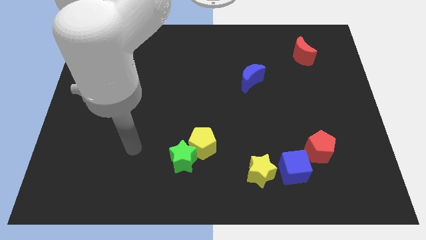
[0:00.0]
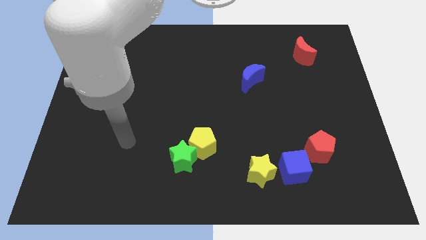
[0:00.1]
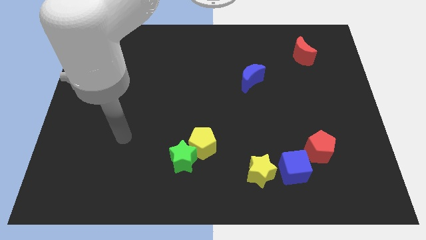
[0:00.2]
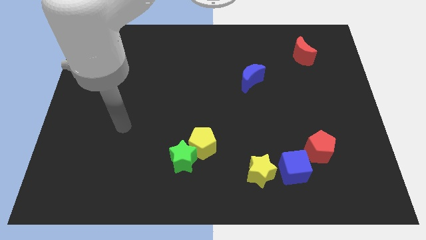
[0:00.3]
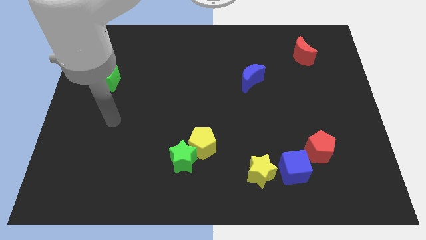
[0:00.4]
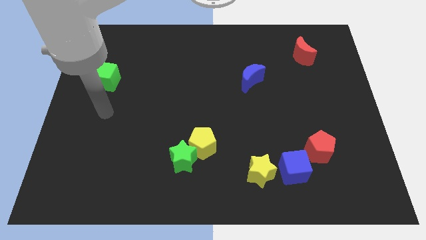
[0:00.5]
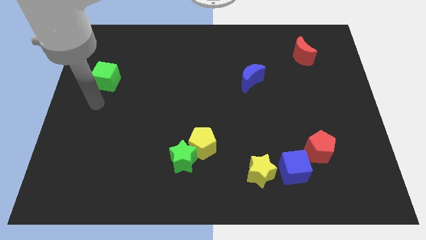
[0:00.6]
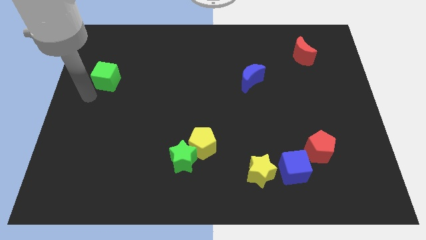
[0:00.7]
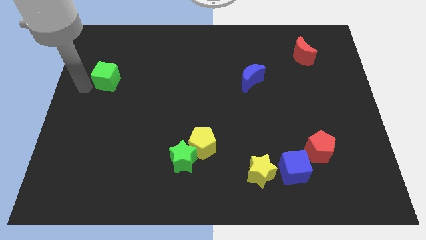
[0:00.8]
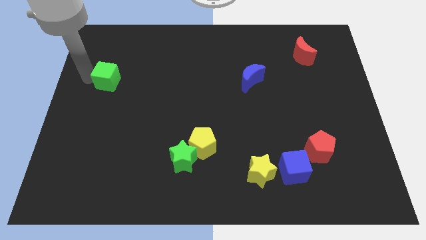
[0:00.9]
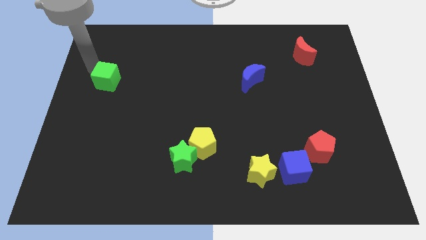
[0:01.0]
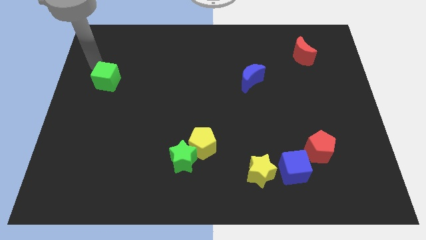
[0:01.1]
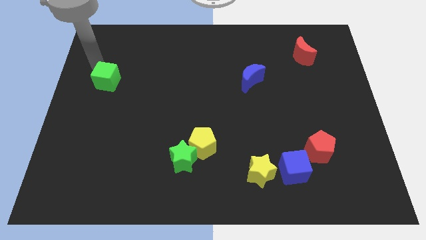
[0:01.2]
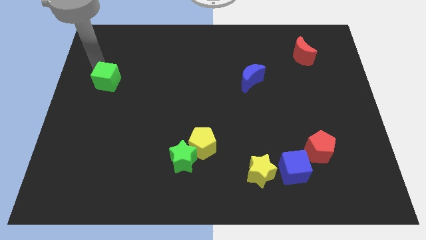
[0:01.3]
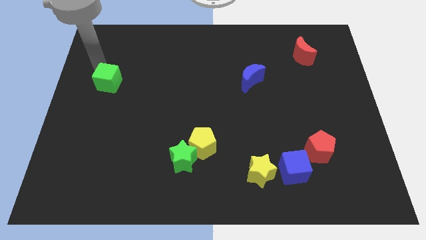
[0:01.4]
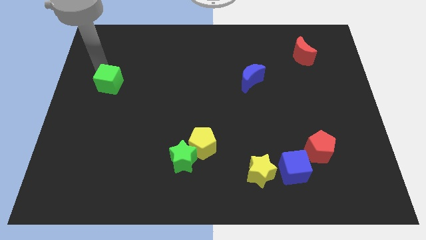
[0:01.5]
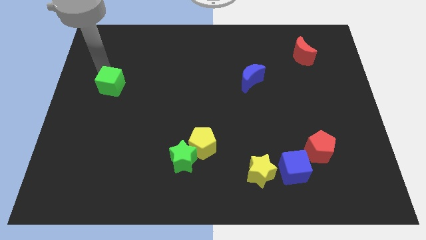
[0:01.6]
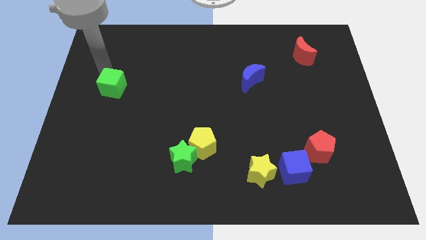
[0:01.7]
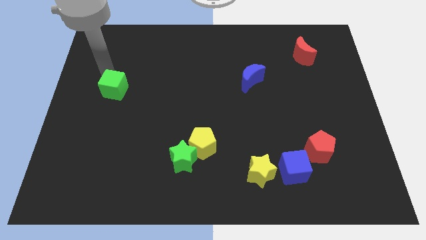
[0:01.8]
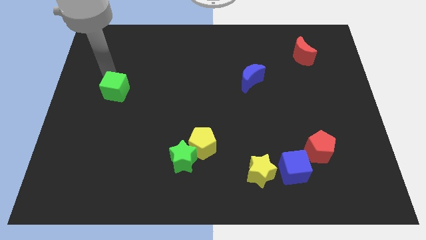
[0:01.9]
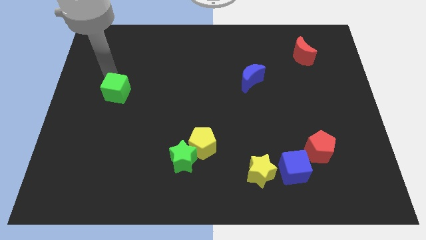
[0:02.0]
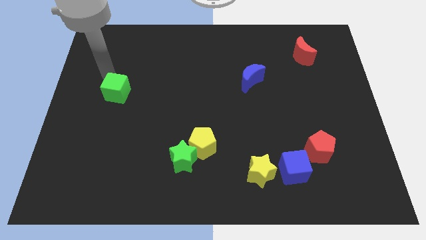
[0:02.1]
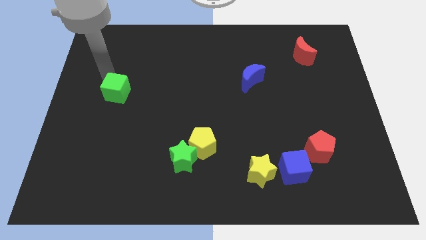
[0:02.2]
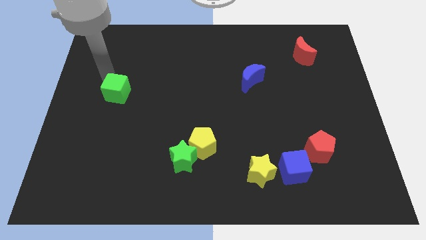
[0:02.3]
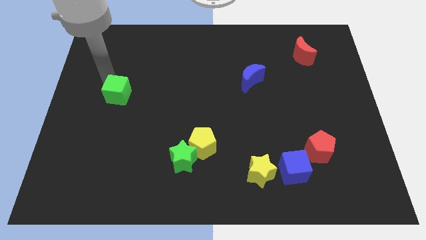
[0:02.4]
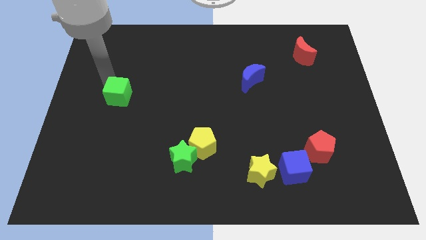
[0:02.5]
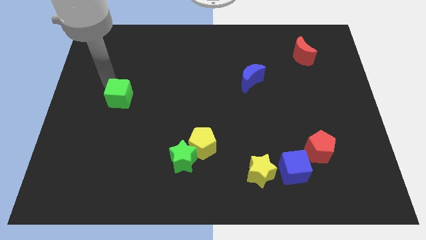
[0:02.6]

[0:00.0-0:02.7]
push the green cube down and to the right a bit

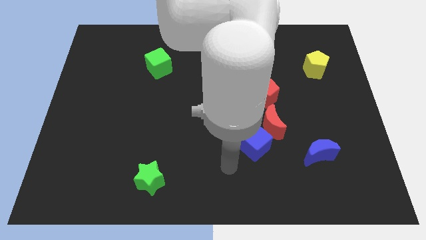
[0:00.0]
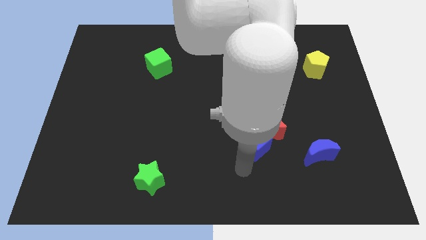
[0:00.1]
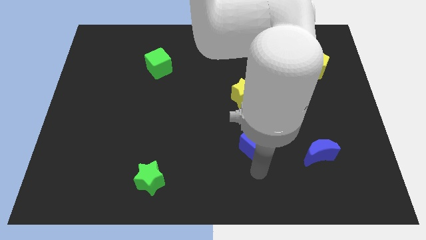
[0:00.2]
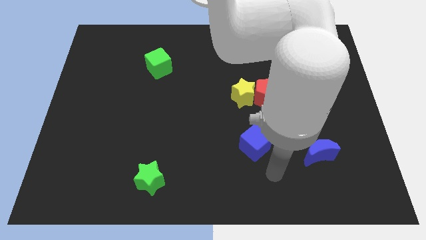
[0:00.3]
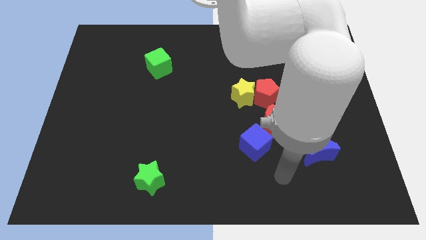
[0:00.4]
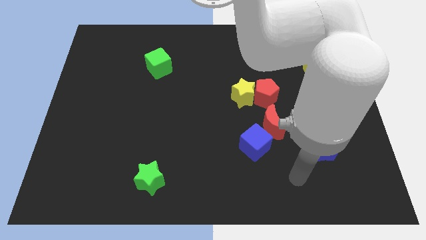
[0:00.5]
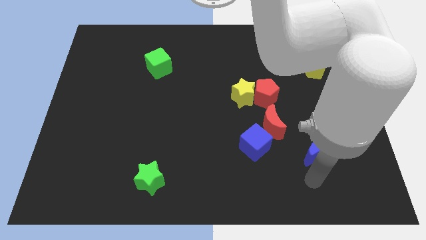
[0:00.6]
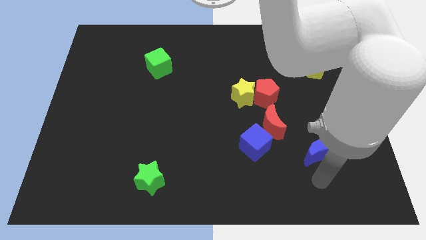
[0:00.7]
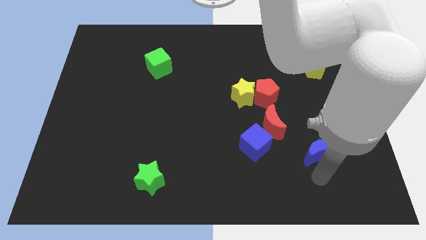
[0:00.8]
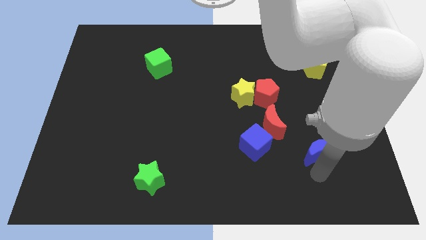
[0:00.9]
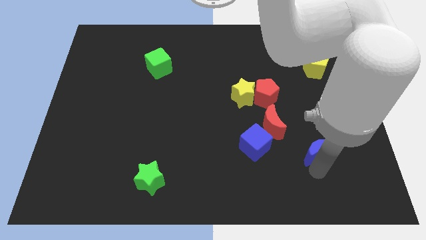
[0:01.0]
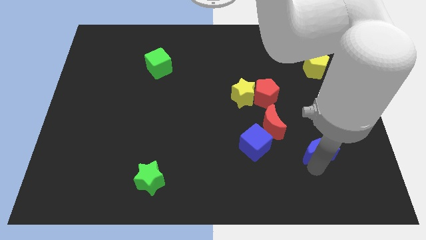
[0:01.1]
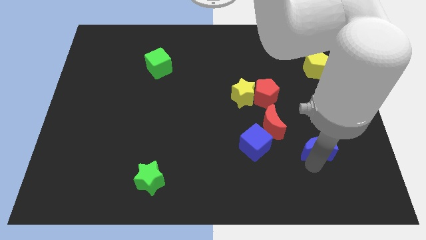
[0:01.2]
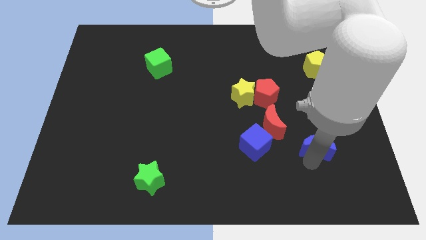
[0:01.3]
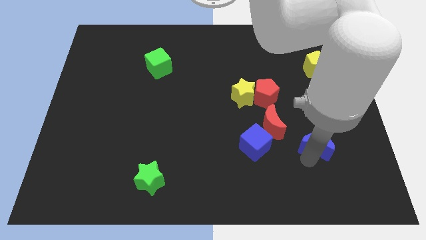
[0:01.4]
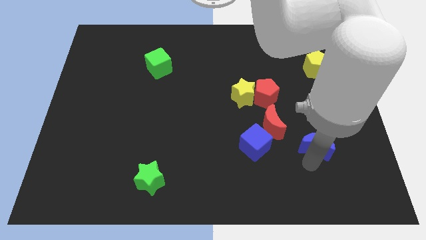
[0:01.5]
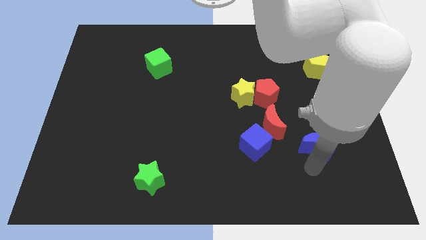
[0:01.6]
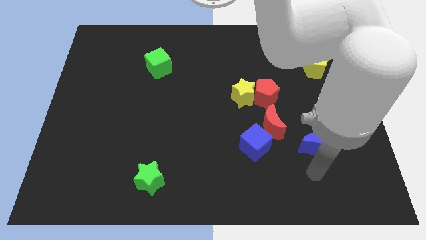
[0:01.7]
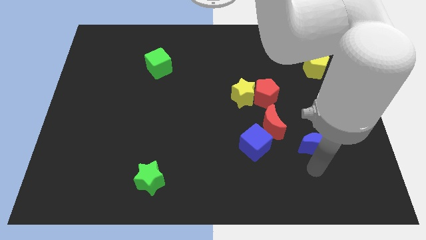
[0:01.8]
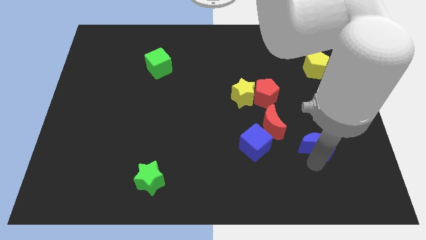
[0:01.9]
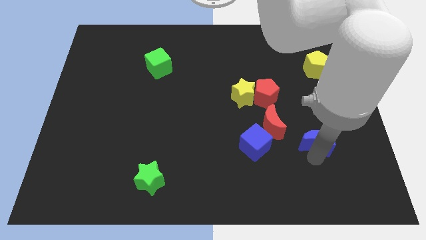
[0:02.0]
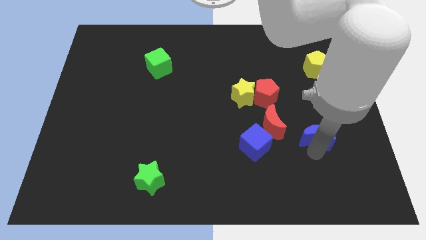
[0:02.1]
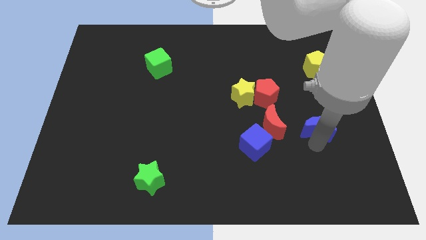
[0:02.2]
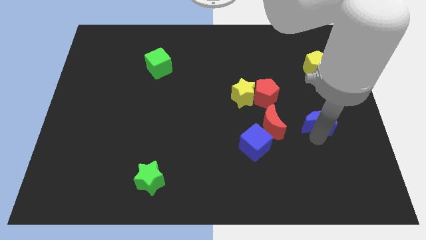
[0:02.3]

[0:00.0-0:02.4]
slide the blue moon slightly upwards

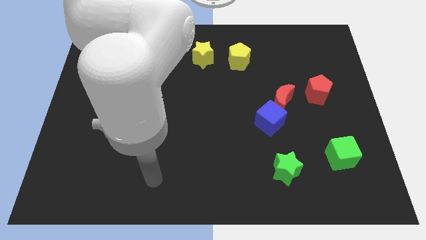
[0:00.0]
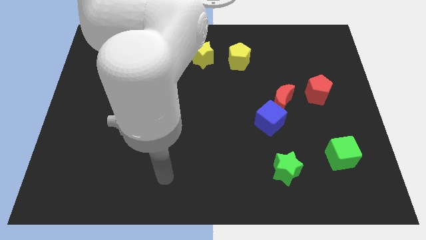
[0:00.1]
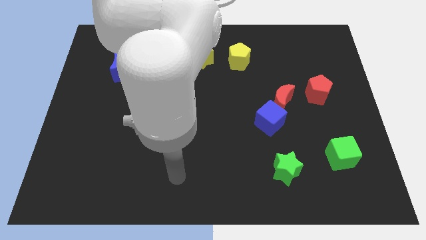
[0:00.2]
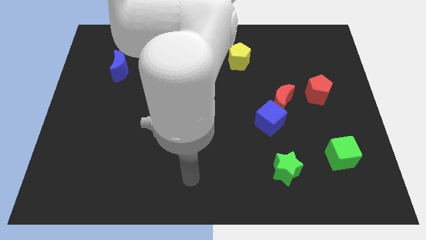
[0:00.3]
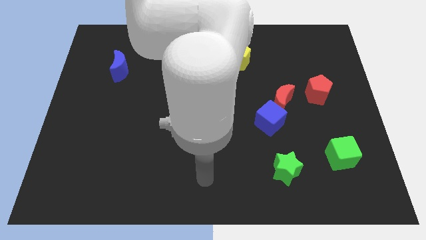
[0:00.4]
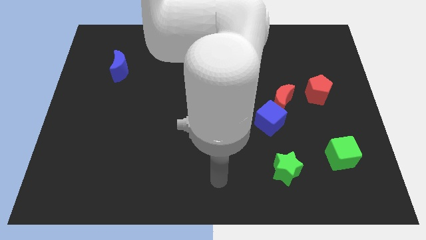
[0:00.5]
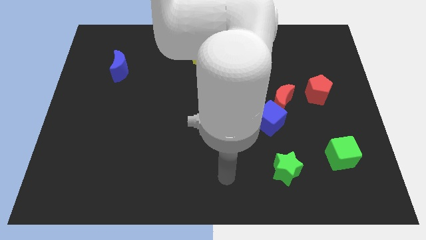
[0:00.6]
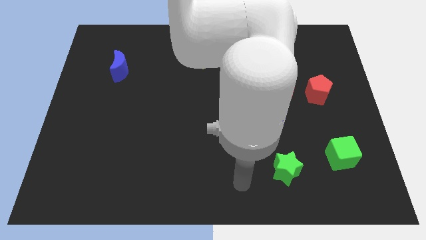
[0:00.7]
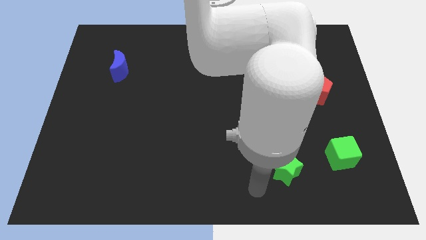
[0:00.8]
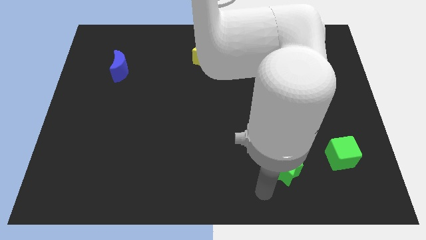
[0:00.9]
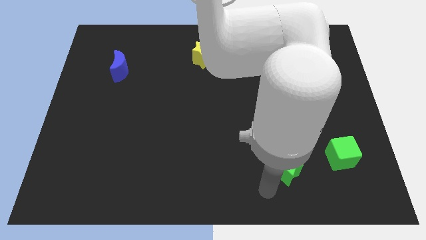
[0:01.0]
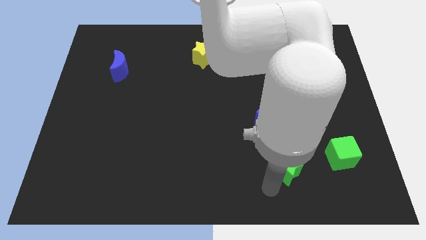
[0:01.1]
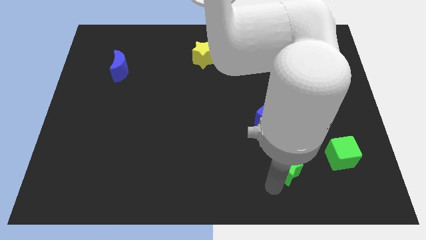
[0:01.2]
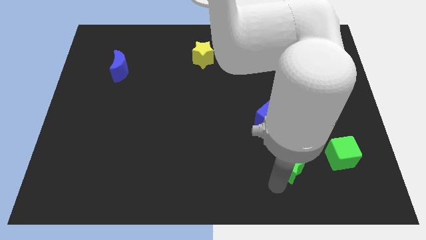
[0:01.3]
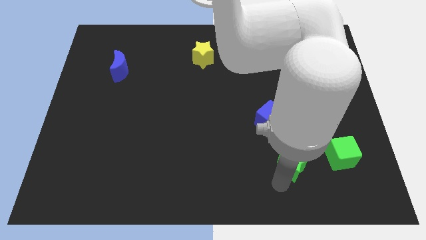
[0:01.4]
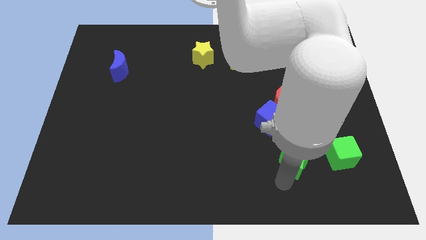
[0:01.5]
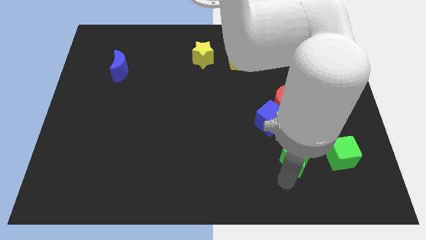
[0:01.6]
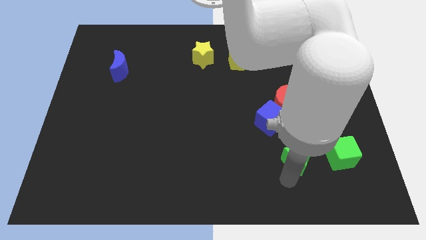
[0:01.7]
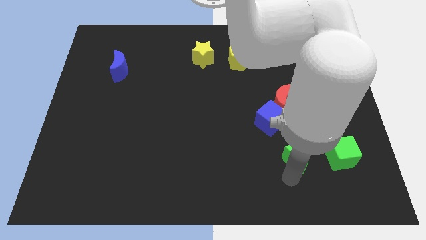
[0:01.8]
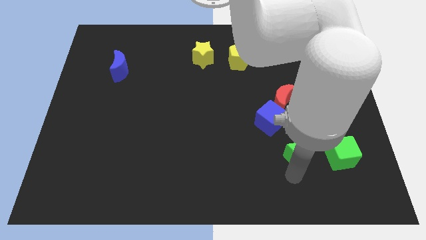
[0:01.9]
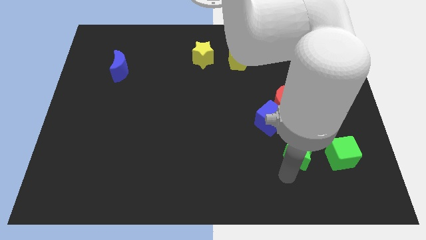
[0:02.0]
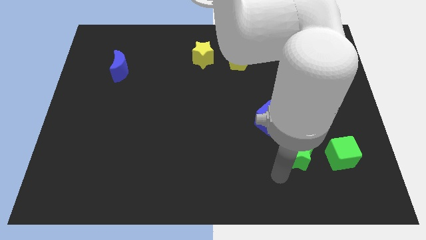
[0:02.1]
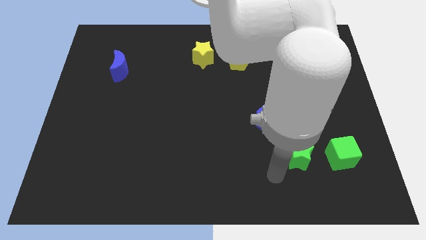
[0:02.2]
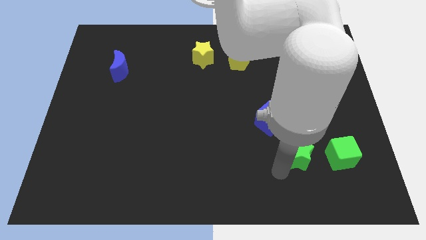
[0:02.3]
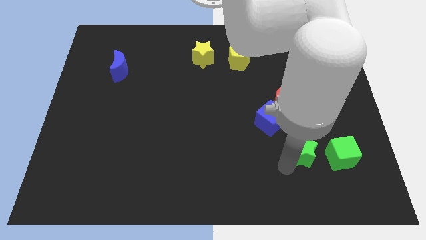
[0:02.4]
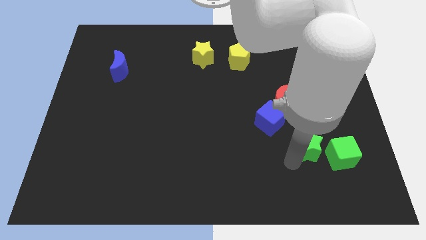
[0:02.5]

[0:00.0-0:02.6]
slide the green star up and to the right diagonally a bit

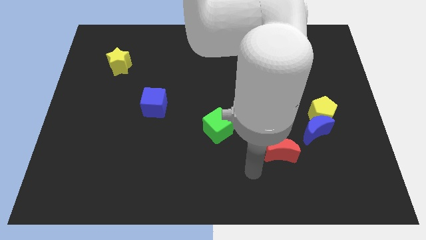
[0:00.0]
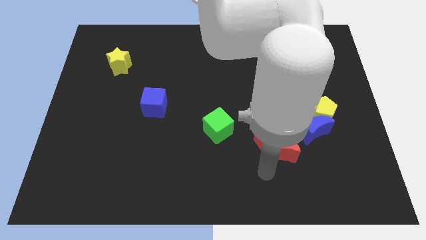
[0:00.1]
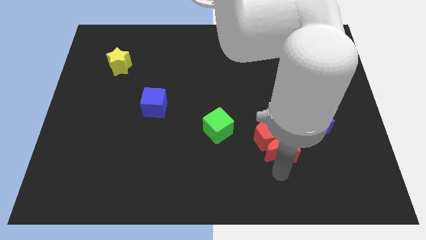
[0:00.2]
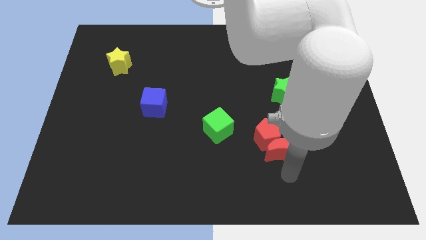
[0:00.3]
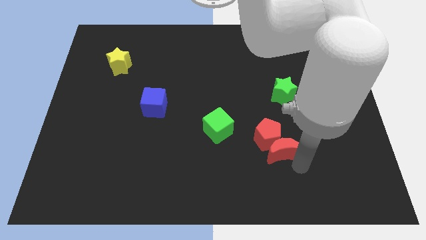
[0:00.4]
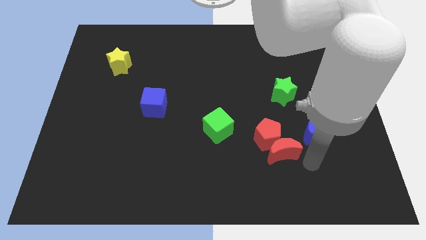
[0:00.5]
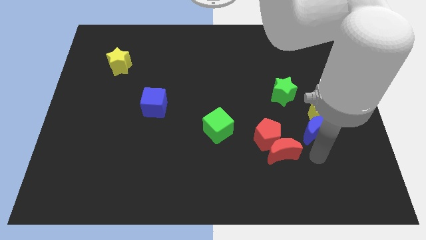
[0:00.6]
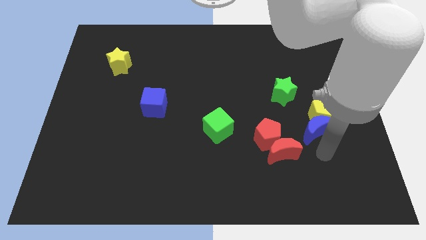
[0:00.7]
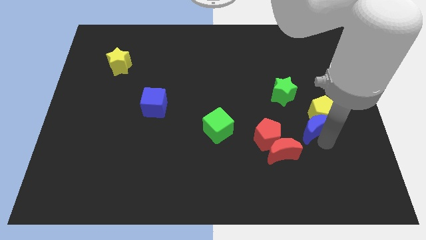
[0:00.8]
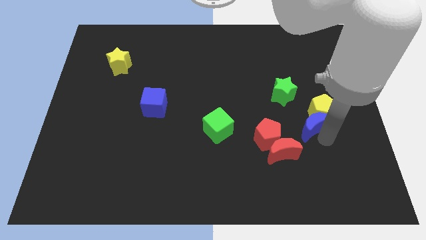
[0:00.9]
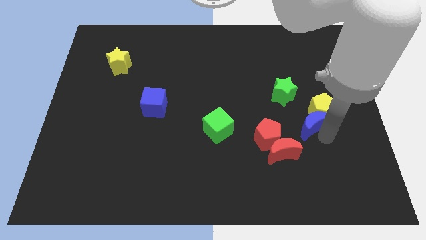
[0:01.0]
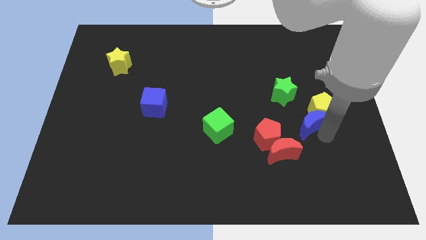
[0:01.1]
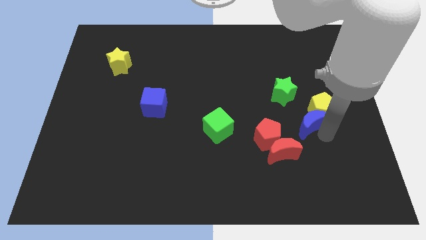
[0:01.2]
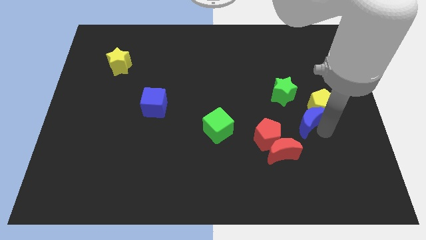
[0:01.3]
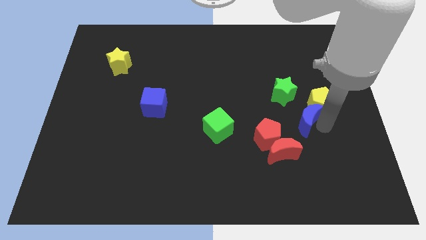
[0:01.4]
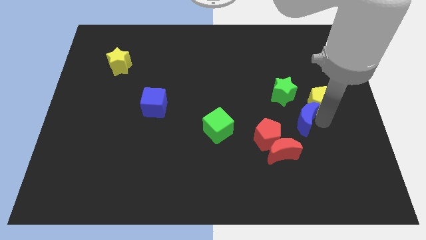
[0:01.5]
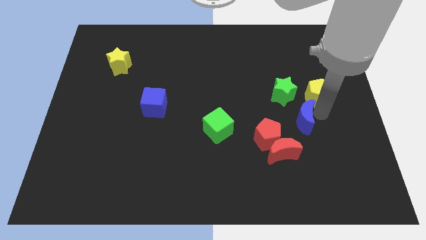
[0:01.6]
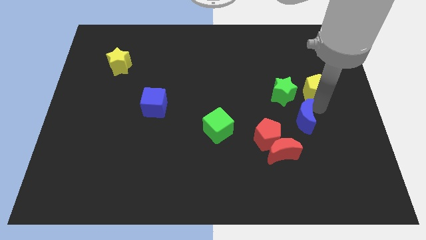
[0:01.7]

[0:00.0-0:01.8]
push the yellow pentagon a bit up
